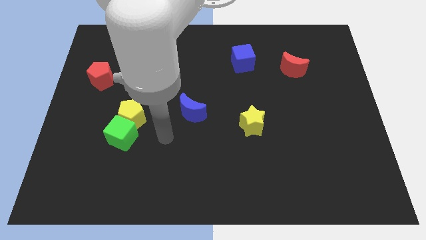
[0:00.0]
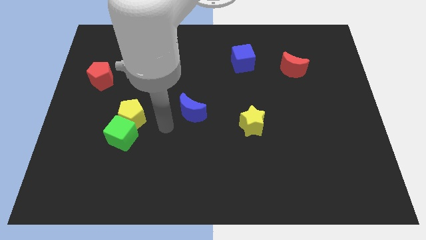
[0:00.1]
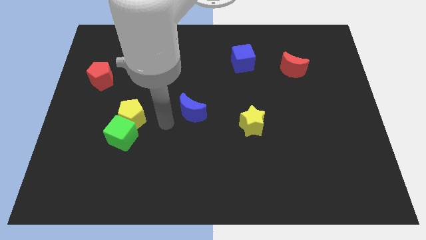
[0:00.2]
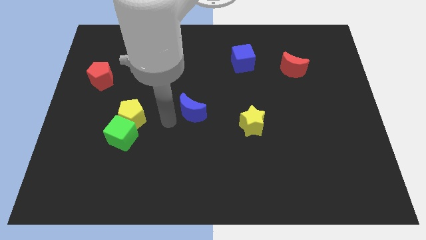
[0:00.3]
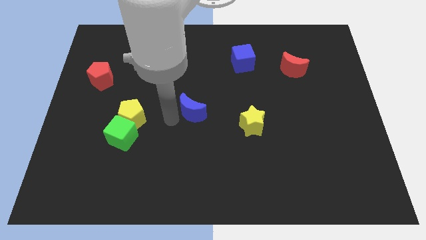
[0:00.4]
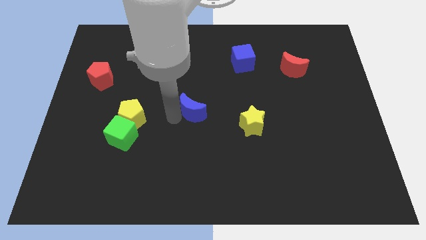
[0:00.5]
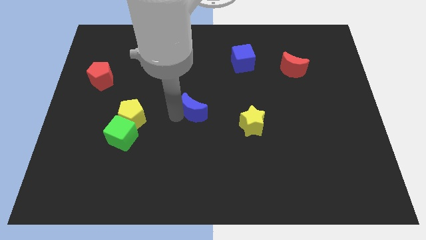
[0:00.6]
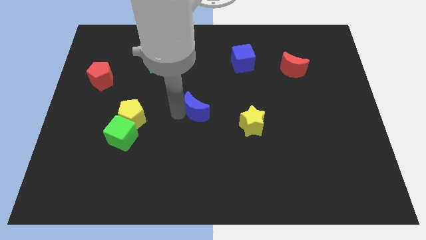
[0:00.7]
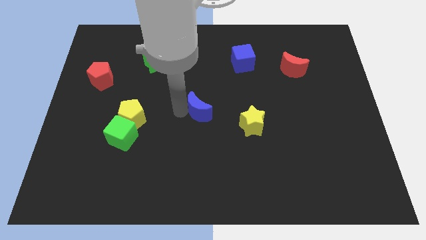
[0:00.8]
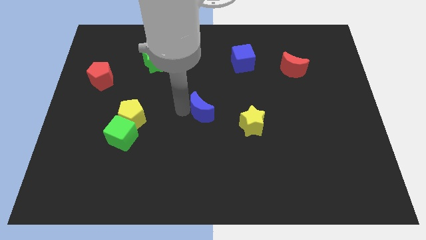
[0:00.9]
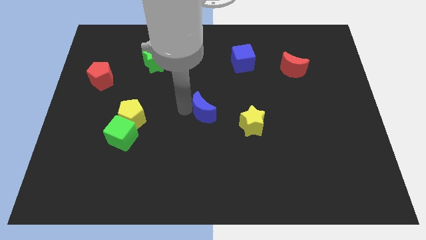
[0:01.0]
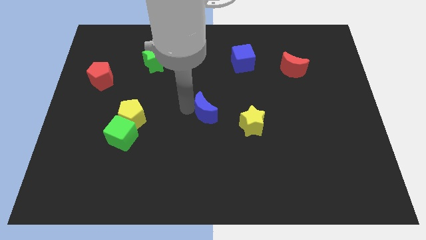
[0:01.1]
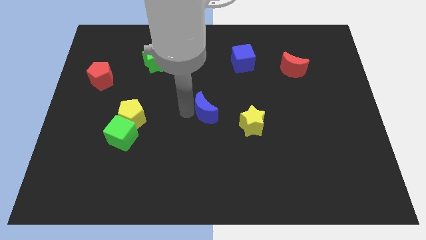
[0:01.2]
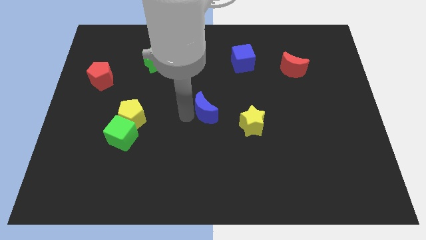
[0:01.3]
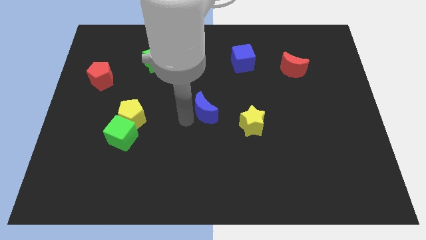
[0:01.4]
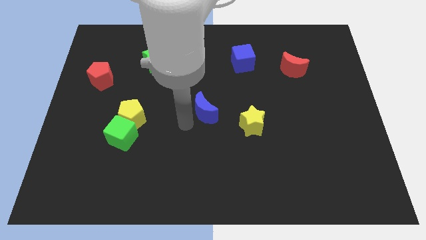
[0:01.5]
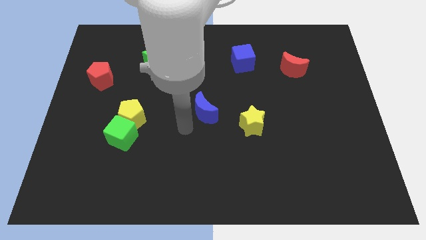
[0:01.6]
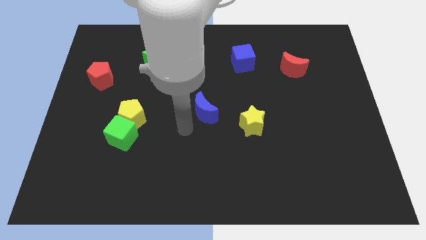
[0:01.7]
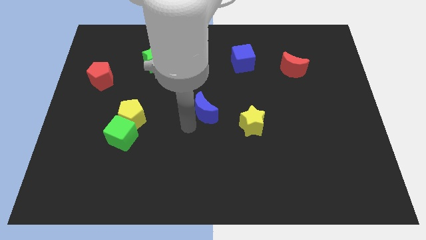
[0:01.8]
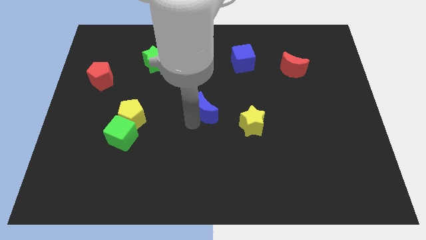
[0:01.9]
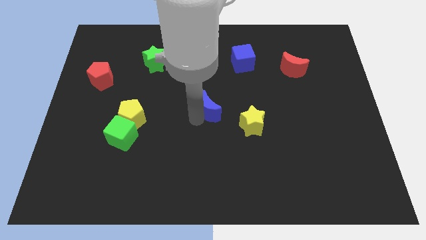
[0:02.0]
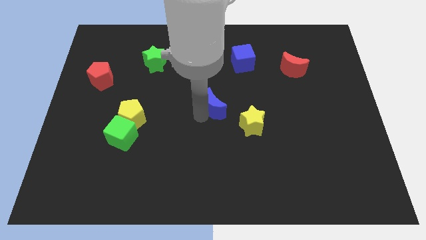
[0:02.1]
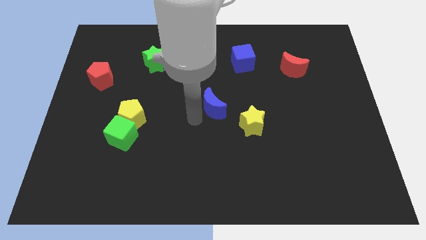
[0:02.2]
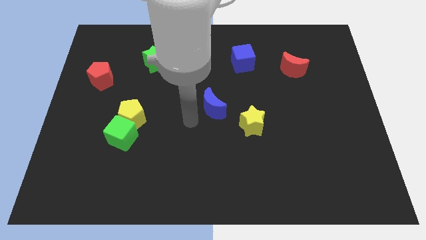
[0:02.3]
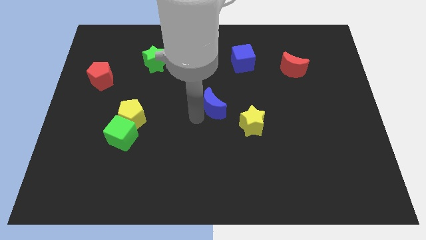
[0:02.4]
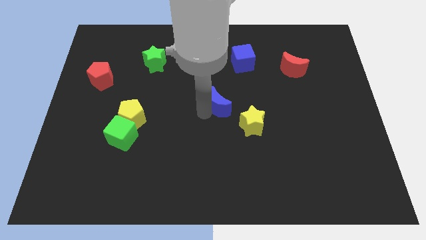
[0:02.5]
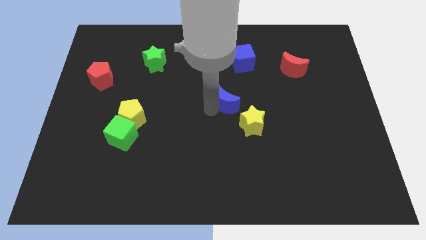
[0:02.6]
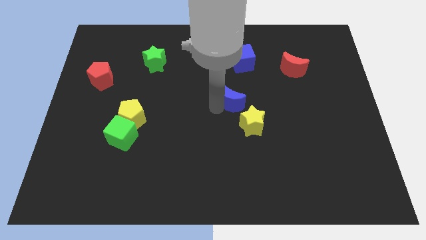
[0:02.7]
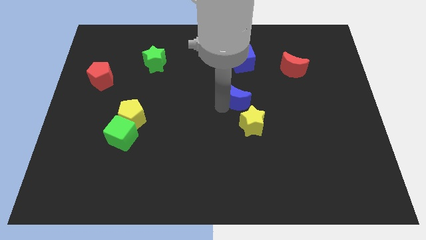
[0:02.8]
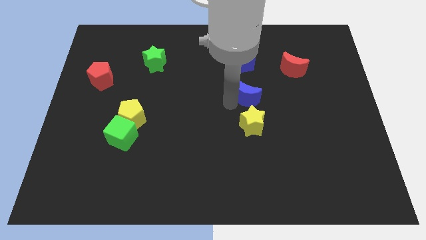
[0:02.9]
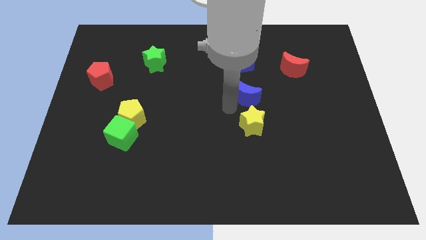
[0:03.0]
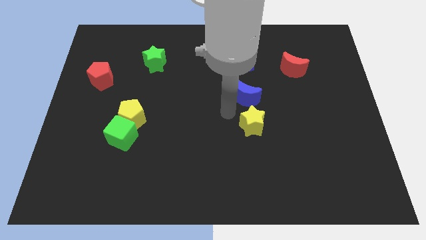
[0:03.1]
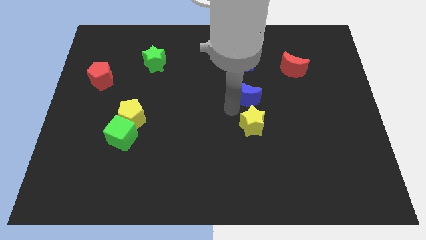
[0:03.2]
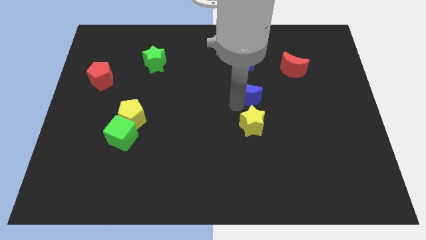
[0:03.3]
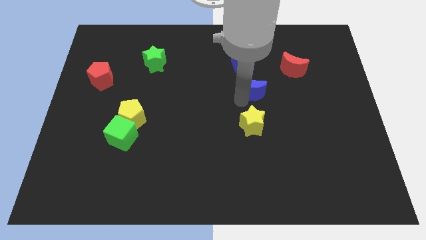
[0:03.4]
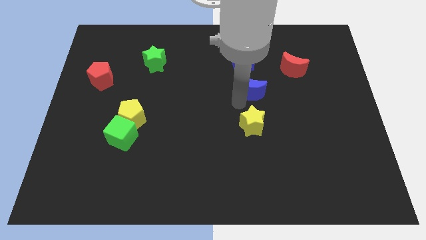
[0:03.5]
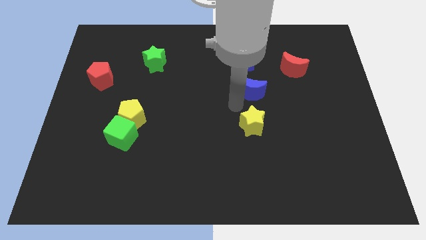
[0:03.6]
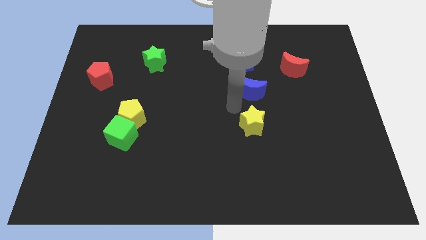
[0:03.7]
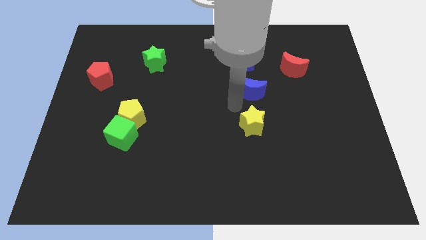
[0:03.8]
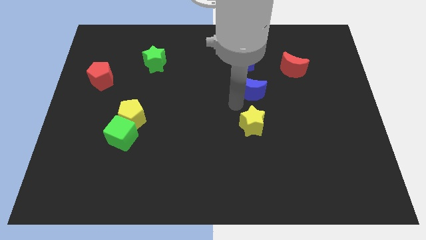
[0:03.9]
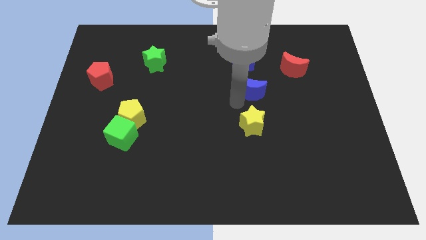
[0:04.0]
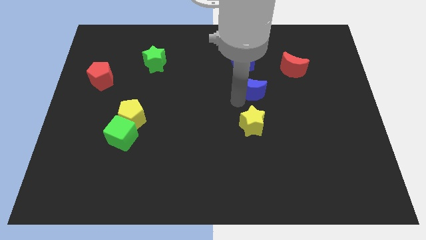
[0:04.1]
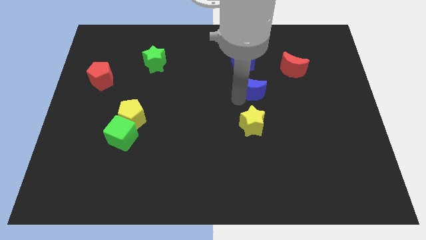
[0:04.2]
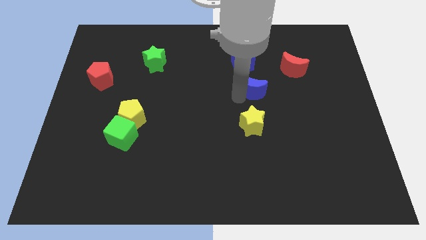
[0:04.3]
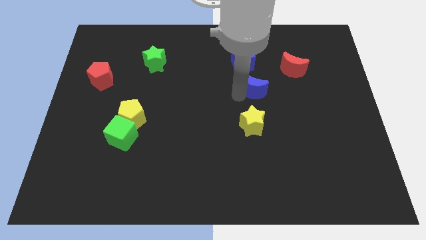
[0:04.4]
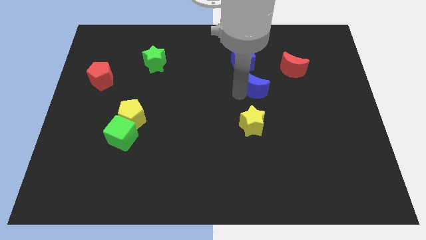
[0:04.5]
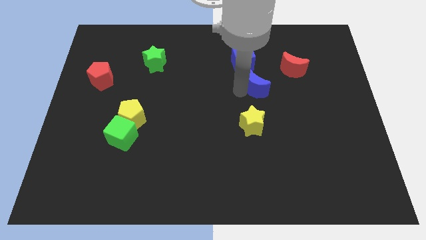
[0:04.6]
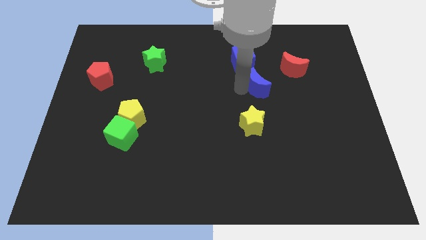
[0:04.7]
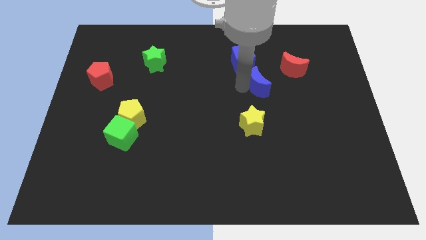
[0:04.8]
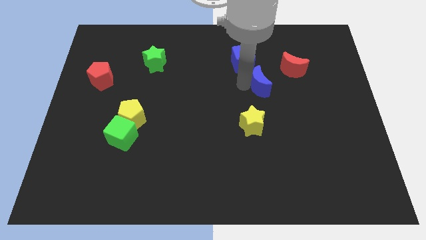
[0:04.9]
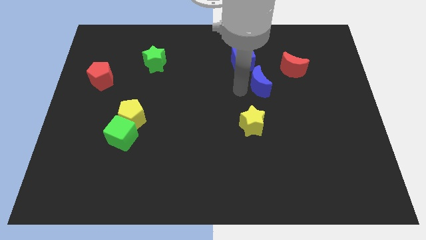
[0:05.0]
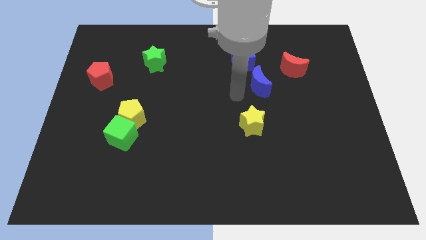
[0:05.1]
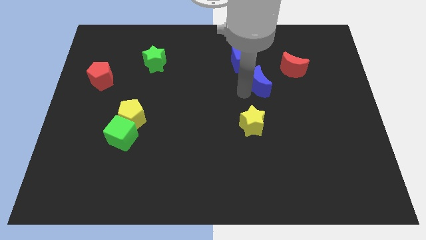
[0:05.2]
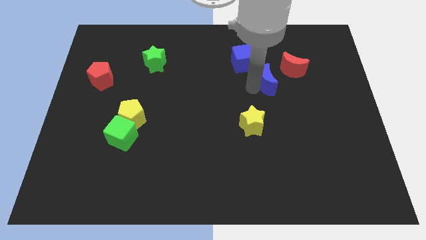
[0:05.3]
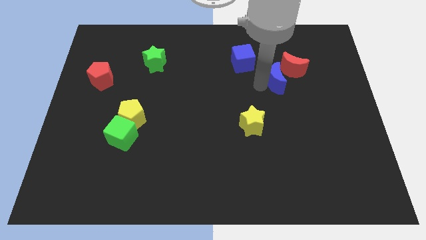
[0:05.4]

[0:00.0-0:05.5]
move the blue moon to the red moon

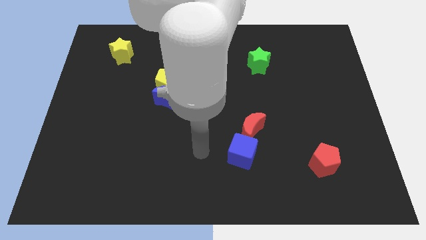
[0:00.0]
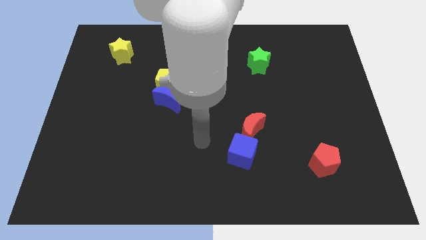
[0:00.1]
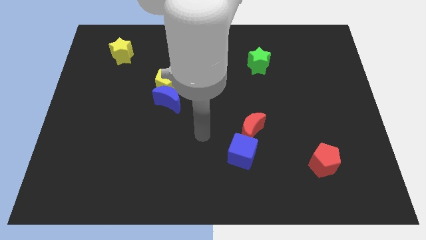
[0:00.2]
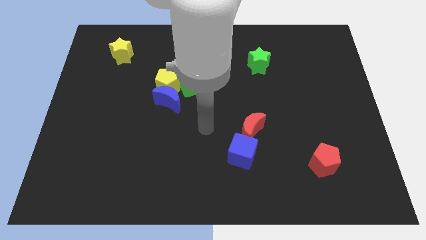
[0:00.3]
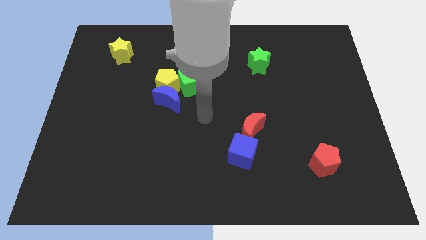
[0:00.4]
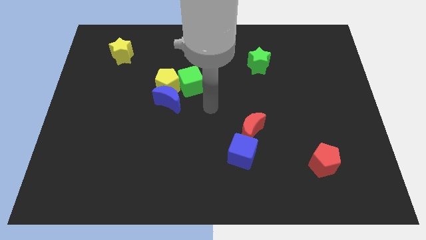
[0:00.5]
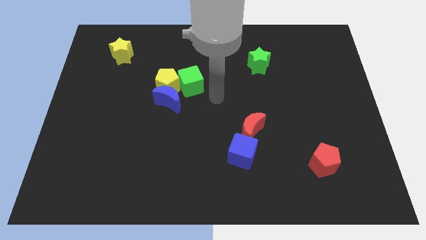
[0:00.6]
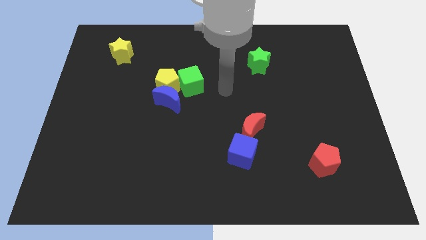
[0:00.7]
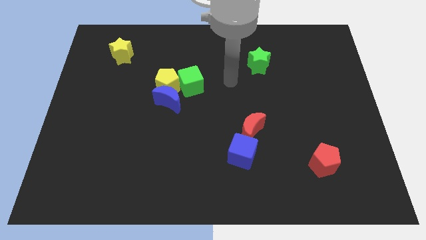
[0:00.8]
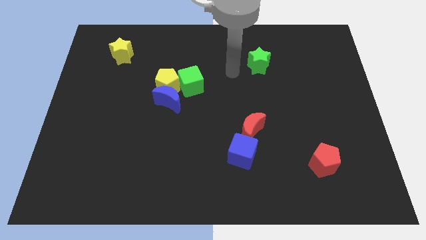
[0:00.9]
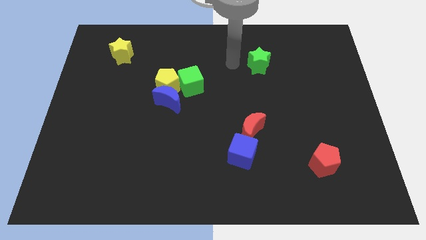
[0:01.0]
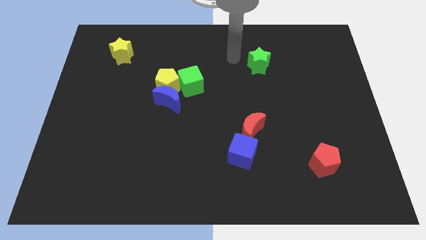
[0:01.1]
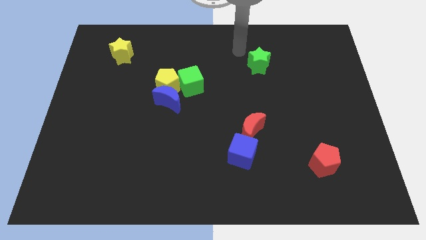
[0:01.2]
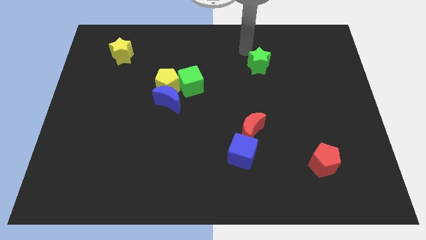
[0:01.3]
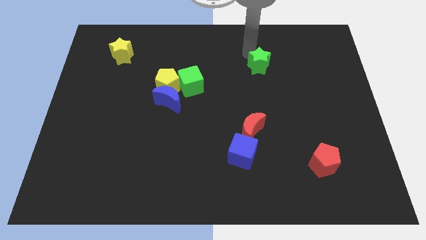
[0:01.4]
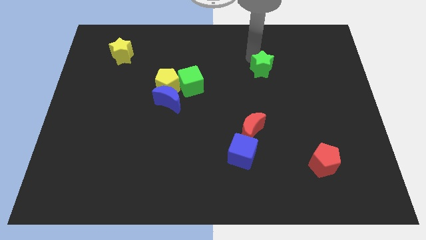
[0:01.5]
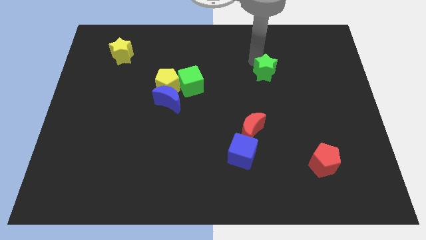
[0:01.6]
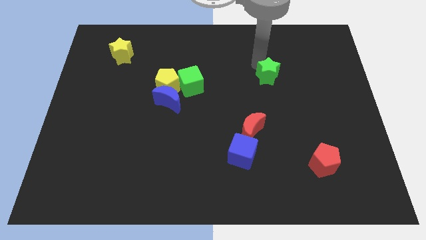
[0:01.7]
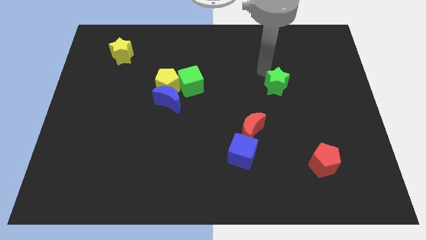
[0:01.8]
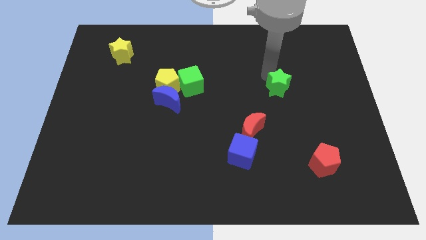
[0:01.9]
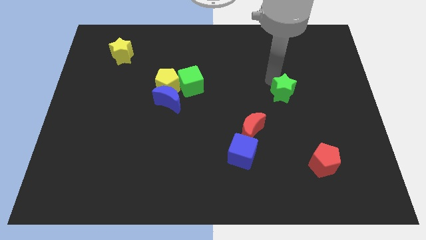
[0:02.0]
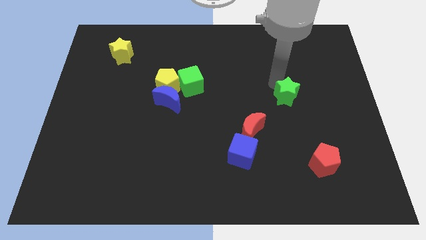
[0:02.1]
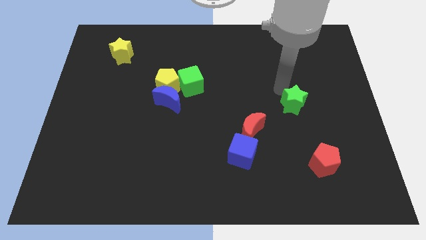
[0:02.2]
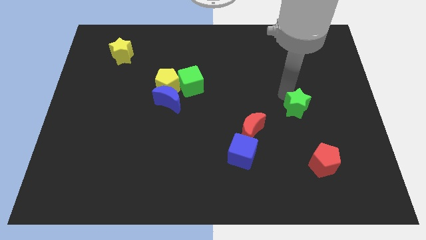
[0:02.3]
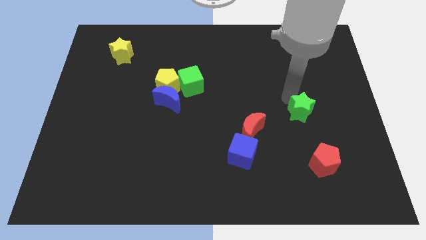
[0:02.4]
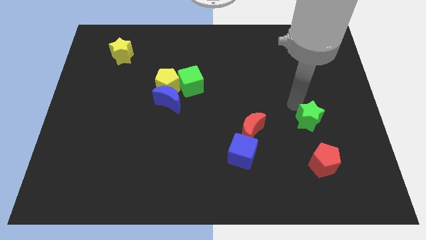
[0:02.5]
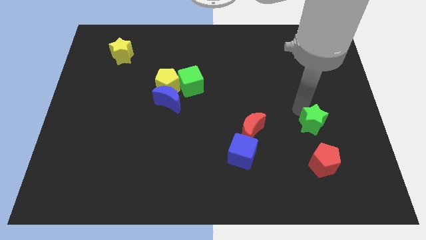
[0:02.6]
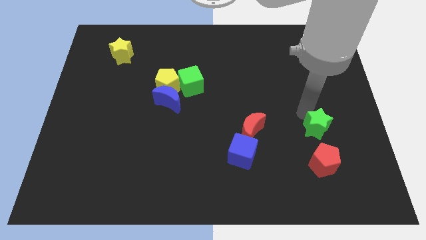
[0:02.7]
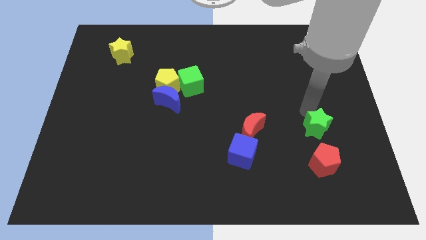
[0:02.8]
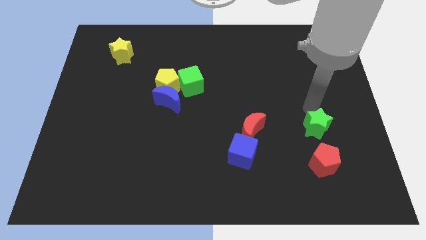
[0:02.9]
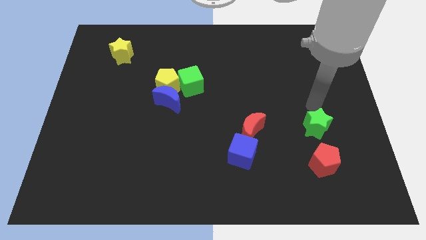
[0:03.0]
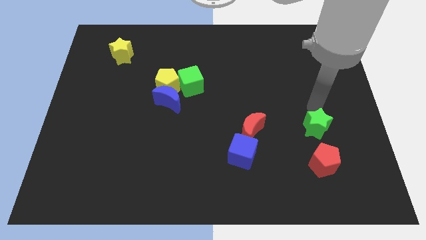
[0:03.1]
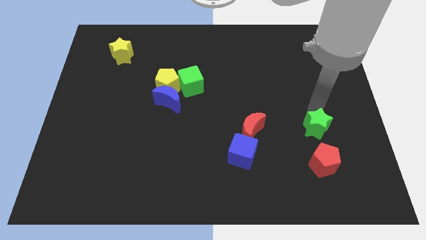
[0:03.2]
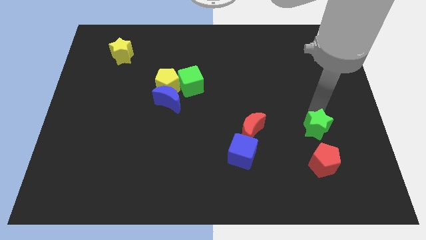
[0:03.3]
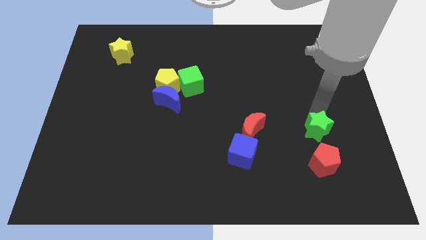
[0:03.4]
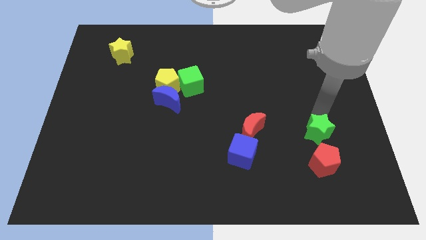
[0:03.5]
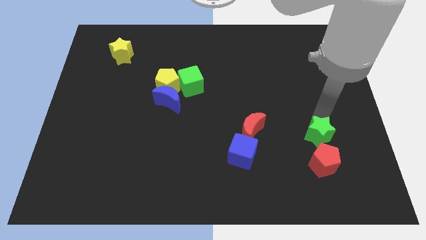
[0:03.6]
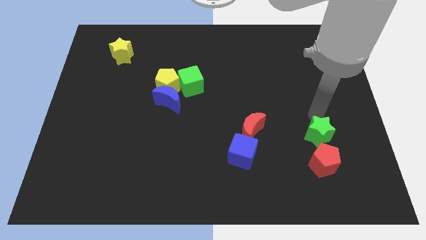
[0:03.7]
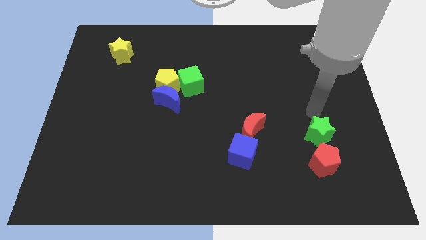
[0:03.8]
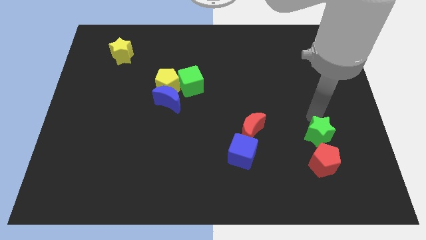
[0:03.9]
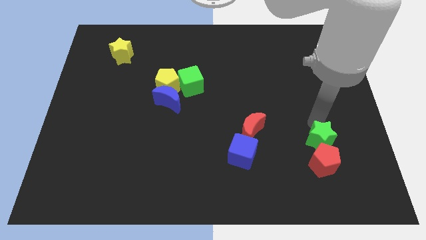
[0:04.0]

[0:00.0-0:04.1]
put the green star to the red pentagon
